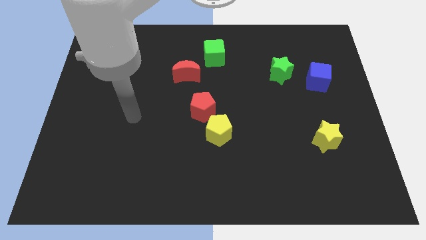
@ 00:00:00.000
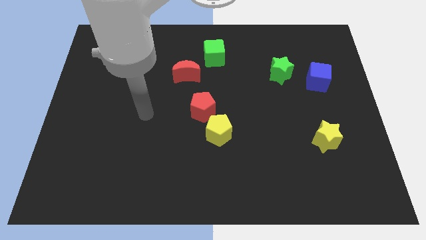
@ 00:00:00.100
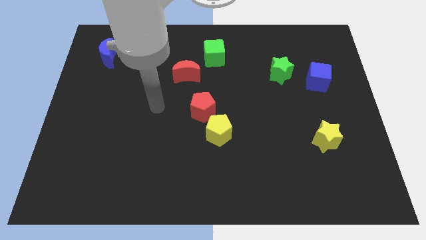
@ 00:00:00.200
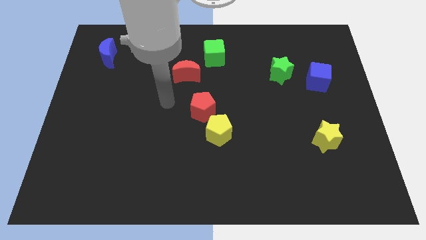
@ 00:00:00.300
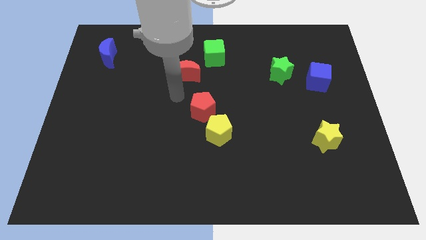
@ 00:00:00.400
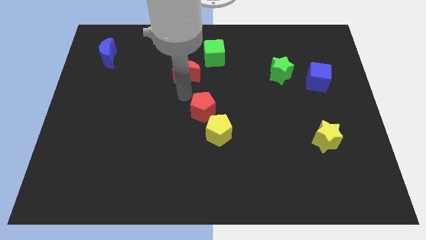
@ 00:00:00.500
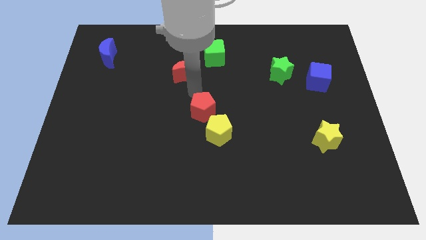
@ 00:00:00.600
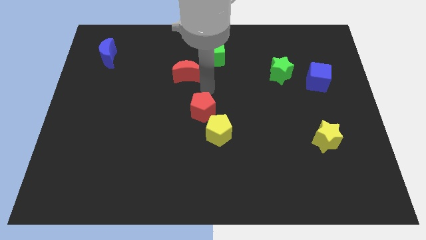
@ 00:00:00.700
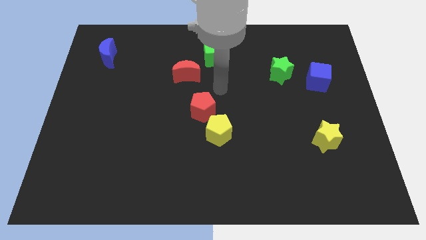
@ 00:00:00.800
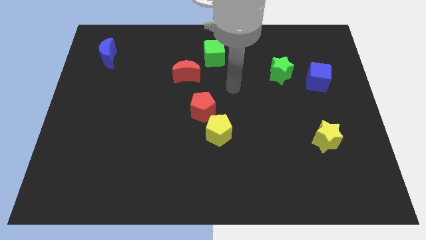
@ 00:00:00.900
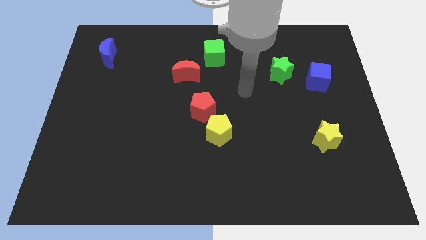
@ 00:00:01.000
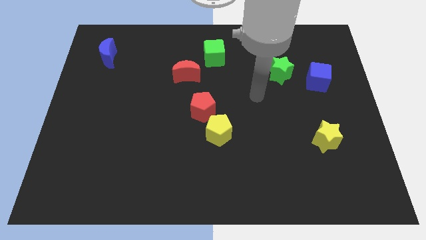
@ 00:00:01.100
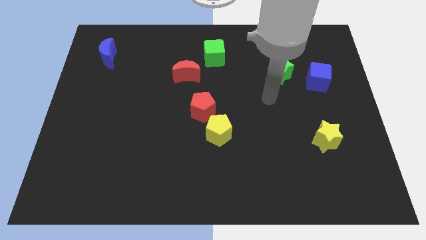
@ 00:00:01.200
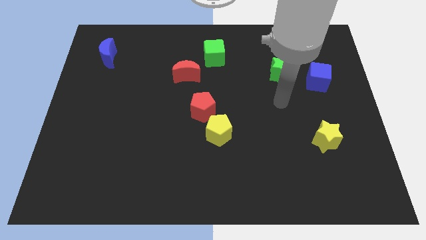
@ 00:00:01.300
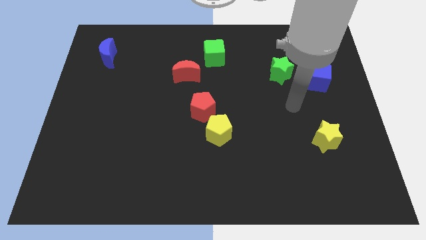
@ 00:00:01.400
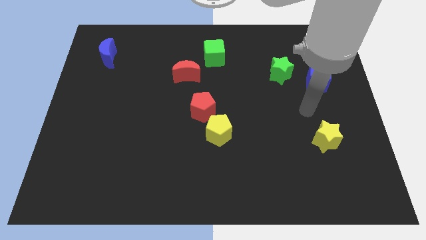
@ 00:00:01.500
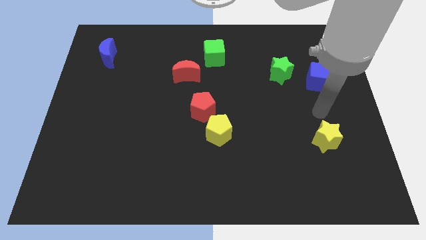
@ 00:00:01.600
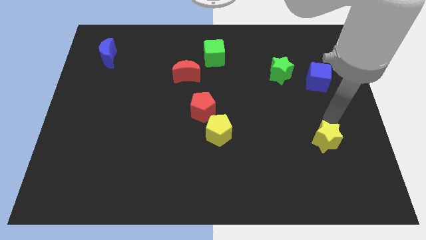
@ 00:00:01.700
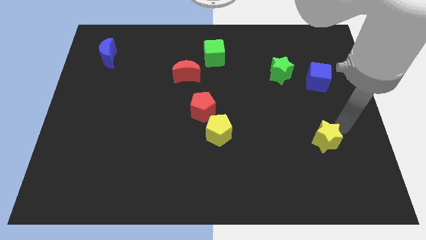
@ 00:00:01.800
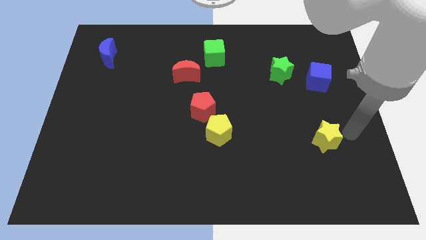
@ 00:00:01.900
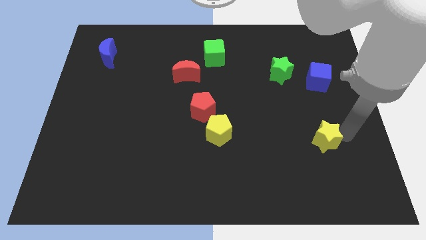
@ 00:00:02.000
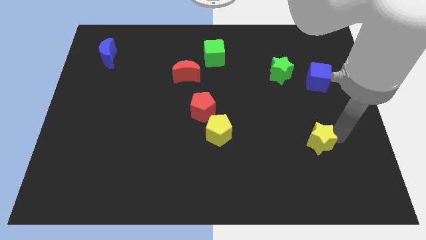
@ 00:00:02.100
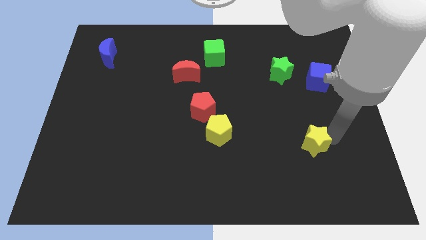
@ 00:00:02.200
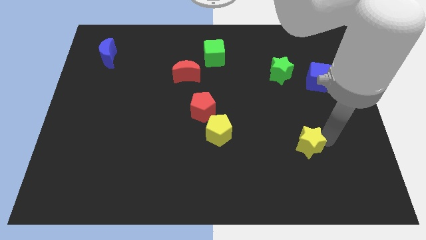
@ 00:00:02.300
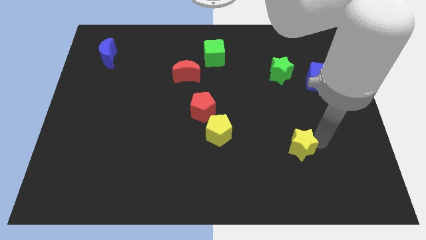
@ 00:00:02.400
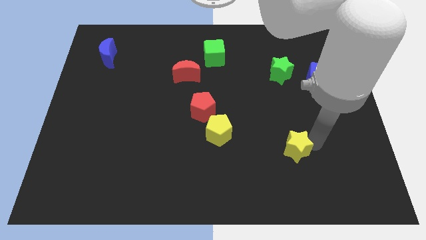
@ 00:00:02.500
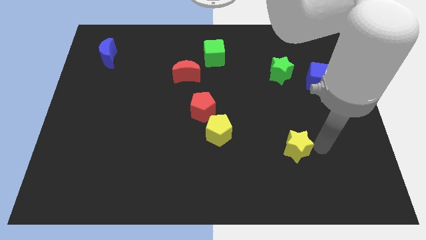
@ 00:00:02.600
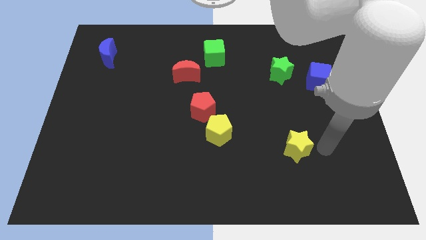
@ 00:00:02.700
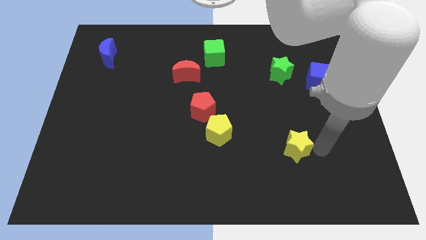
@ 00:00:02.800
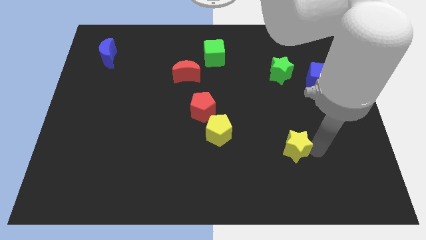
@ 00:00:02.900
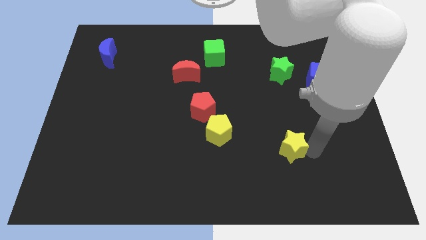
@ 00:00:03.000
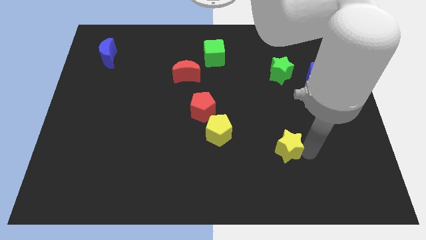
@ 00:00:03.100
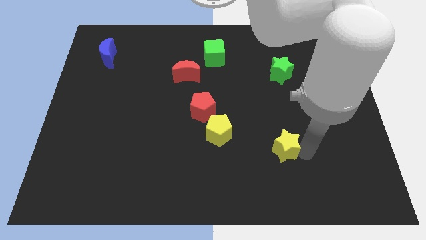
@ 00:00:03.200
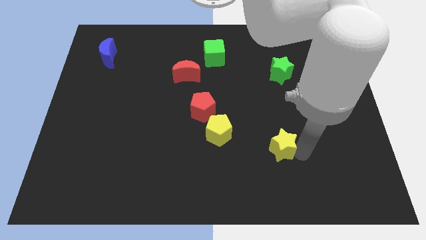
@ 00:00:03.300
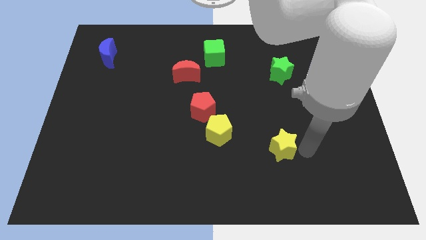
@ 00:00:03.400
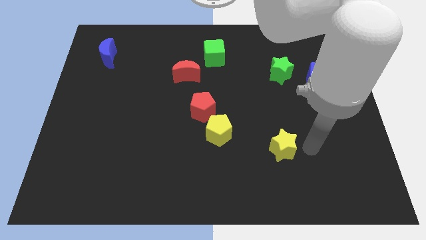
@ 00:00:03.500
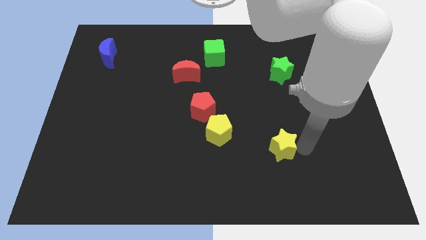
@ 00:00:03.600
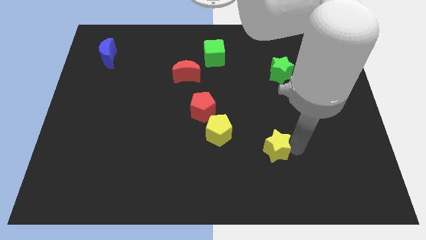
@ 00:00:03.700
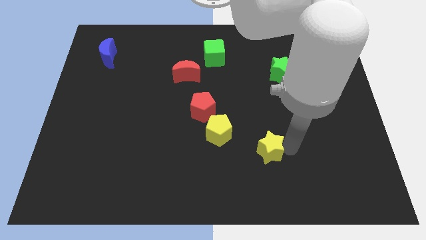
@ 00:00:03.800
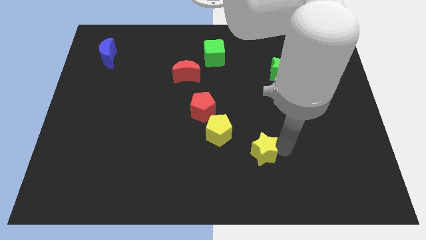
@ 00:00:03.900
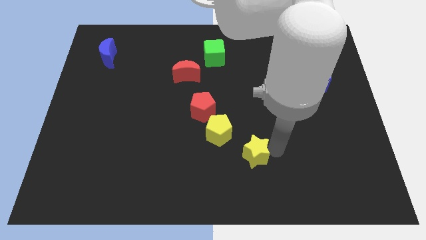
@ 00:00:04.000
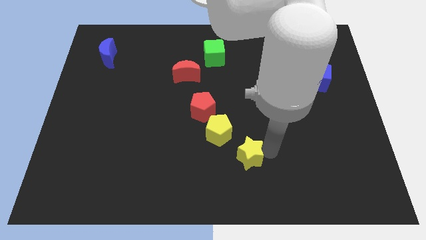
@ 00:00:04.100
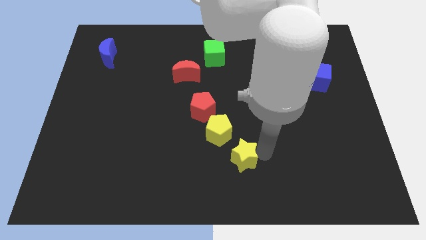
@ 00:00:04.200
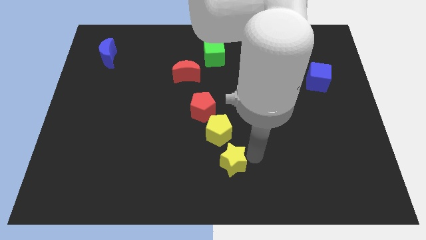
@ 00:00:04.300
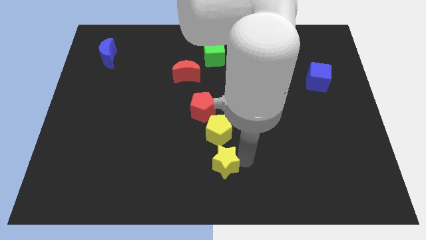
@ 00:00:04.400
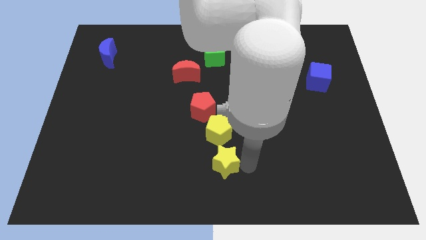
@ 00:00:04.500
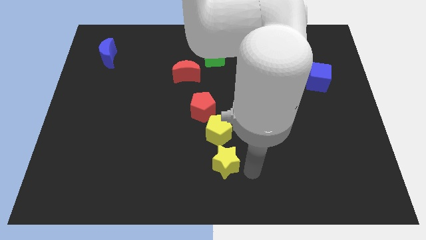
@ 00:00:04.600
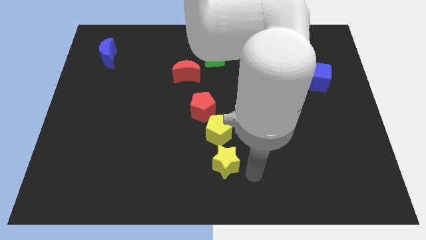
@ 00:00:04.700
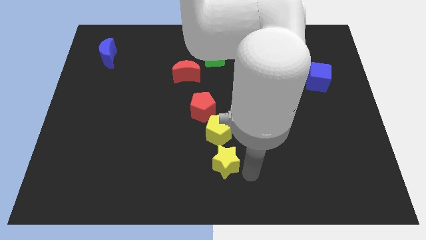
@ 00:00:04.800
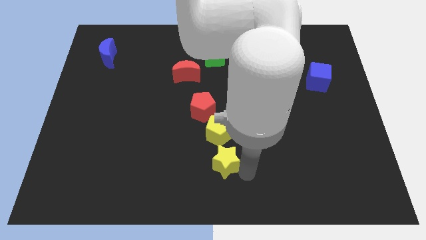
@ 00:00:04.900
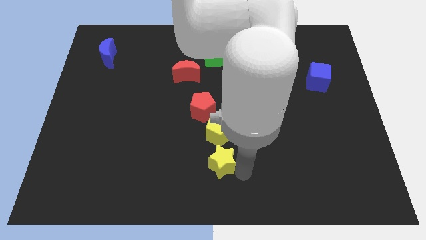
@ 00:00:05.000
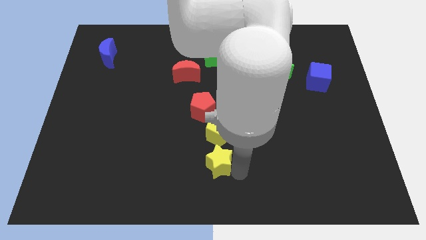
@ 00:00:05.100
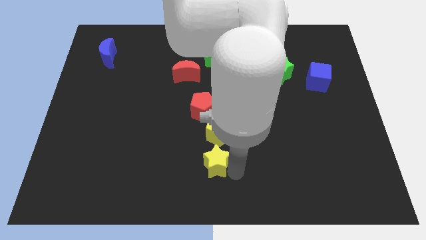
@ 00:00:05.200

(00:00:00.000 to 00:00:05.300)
put the yellow star to the bottom left side of the yellow pentagon

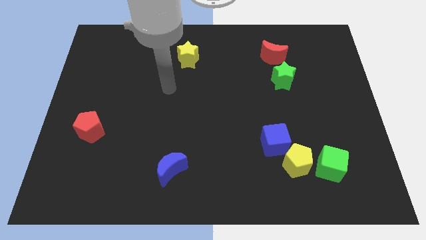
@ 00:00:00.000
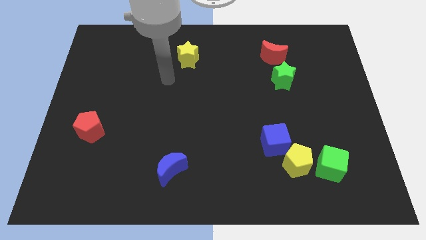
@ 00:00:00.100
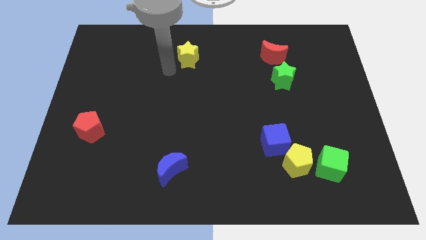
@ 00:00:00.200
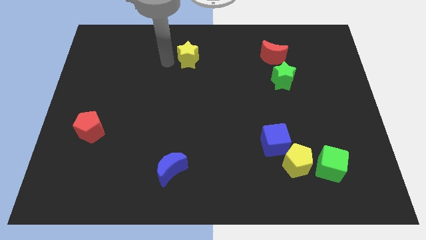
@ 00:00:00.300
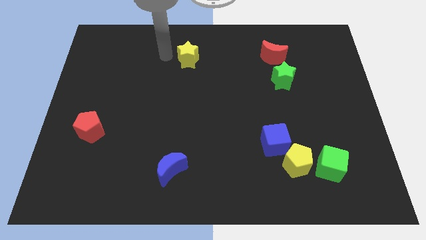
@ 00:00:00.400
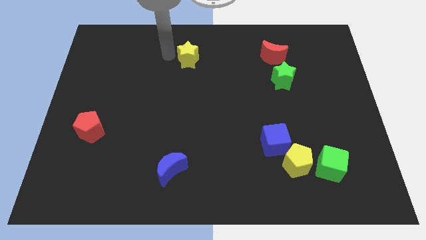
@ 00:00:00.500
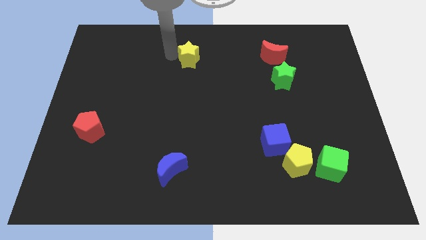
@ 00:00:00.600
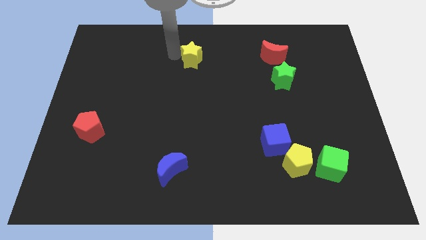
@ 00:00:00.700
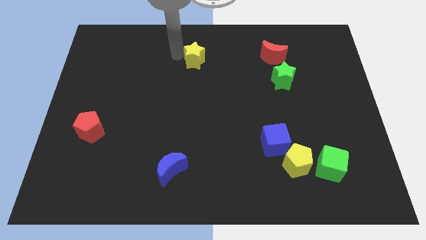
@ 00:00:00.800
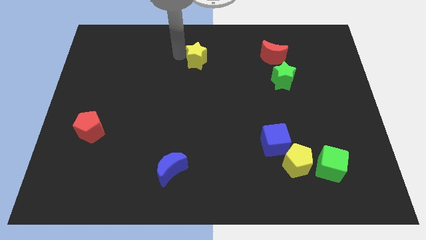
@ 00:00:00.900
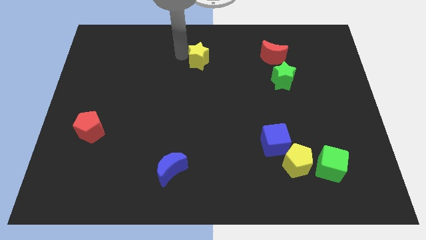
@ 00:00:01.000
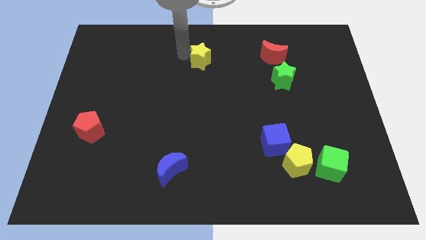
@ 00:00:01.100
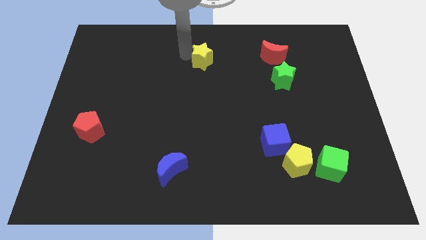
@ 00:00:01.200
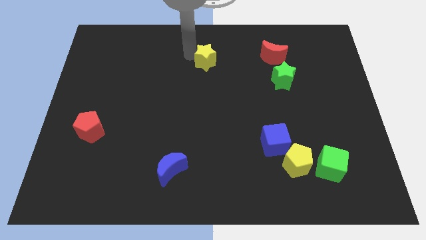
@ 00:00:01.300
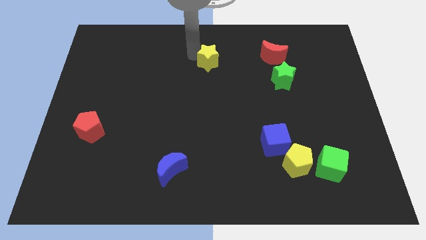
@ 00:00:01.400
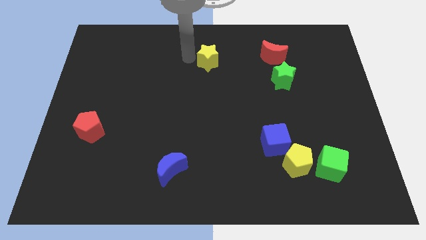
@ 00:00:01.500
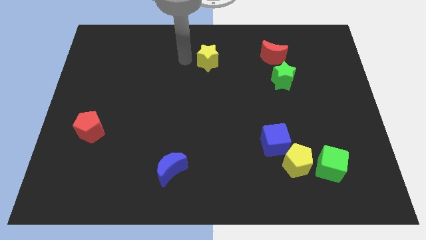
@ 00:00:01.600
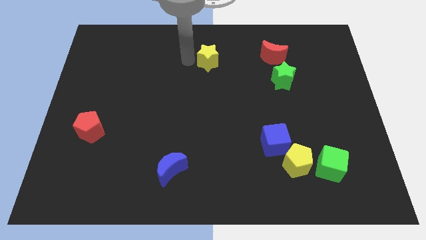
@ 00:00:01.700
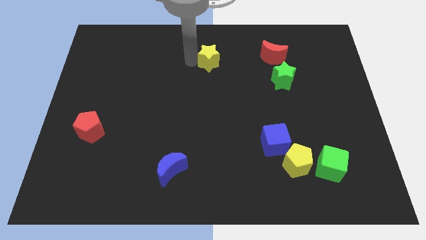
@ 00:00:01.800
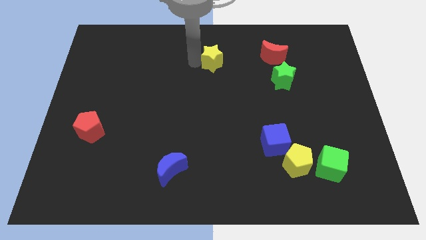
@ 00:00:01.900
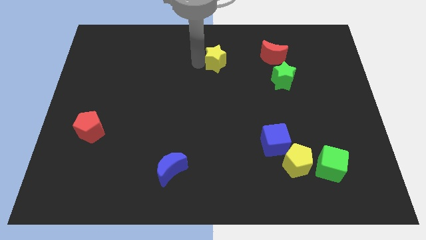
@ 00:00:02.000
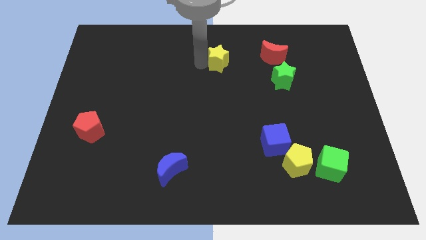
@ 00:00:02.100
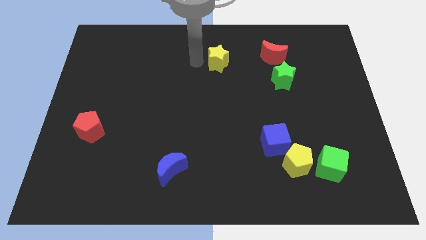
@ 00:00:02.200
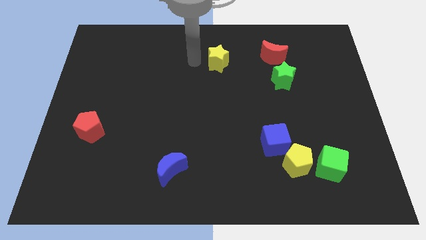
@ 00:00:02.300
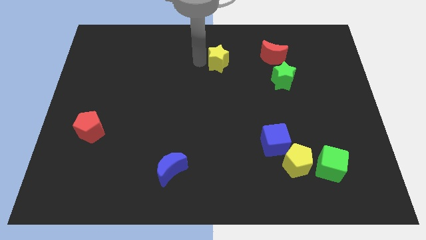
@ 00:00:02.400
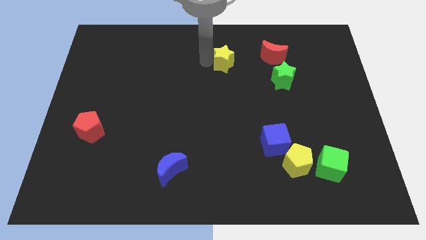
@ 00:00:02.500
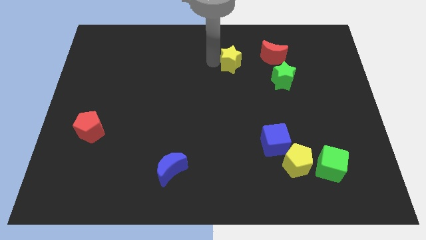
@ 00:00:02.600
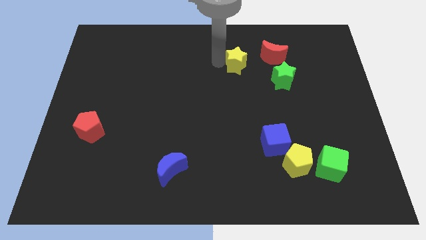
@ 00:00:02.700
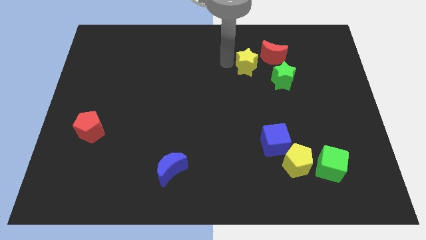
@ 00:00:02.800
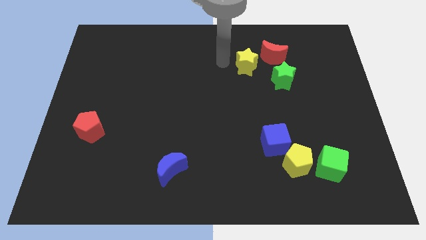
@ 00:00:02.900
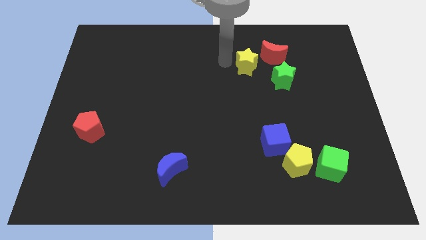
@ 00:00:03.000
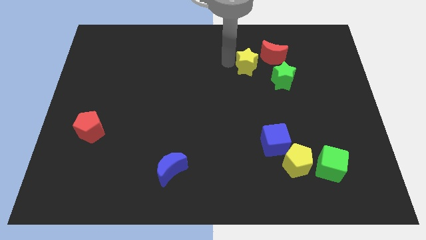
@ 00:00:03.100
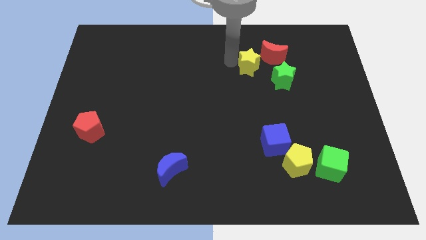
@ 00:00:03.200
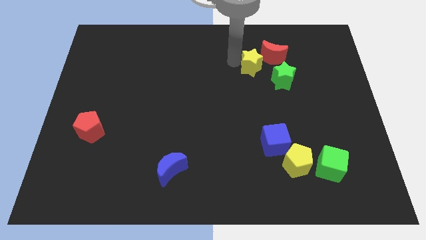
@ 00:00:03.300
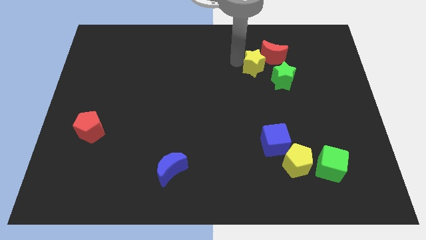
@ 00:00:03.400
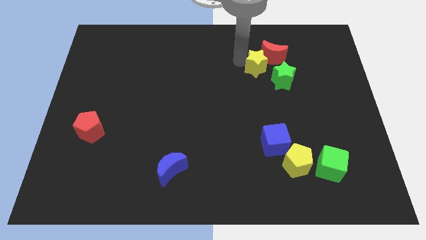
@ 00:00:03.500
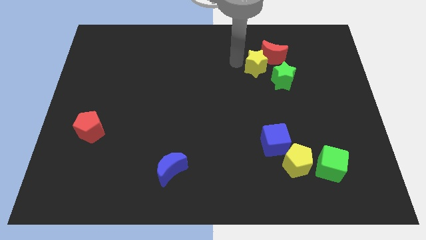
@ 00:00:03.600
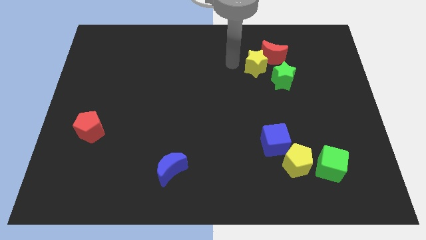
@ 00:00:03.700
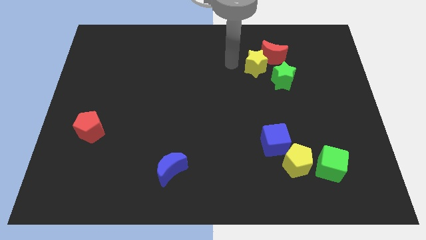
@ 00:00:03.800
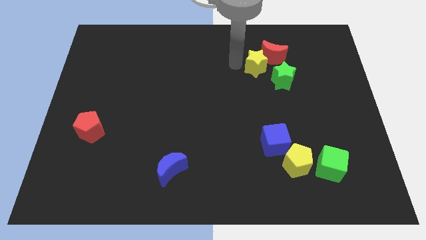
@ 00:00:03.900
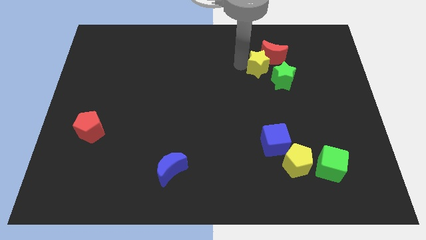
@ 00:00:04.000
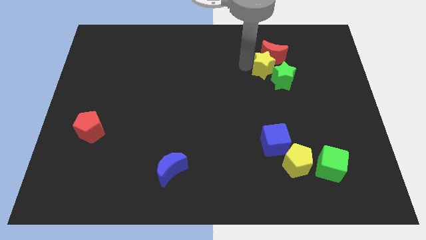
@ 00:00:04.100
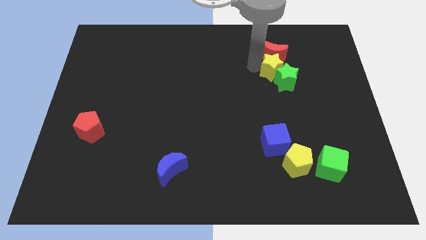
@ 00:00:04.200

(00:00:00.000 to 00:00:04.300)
push the yellow star diagonally down and to the right of the red moon
